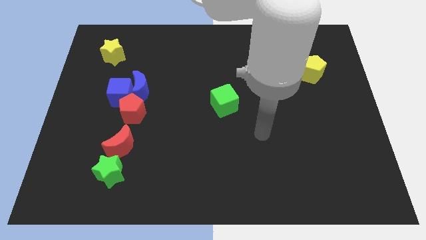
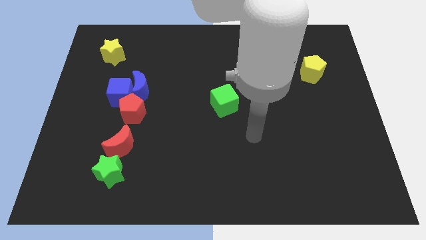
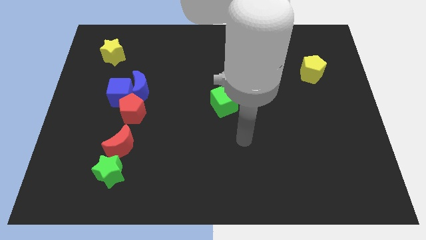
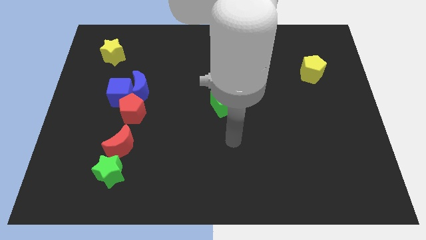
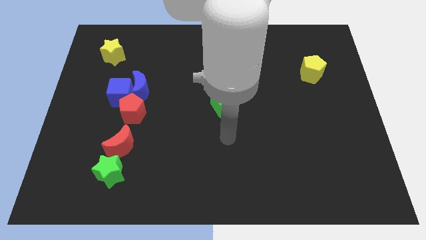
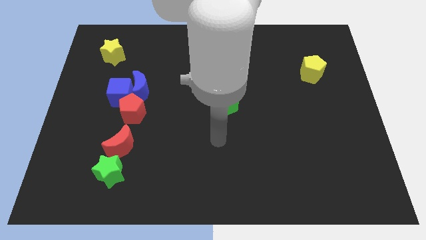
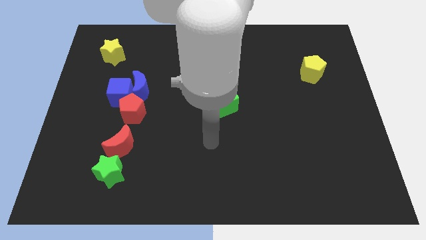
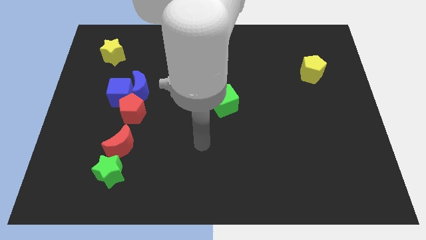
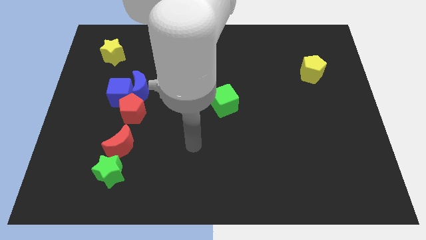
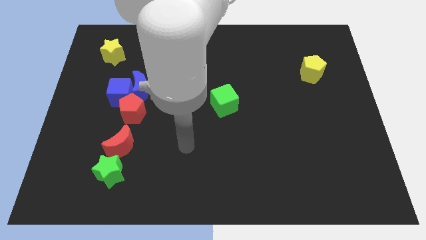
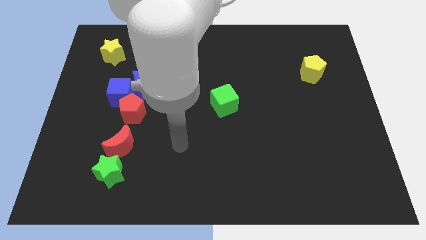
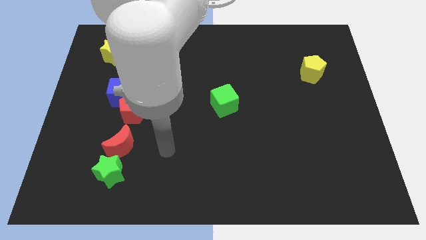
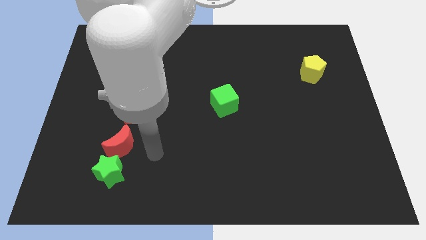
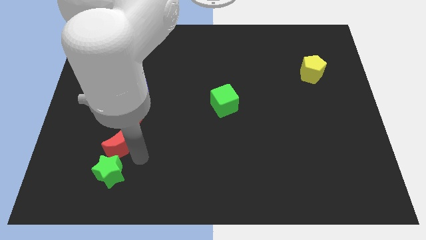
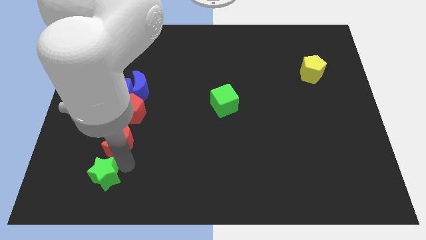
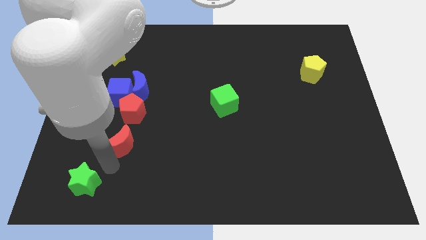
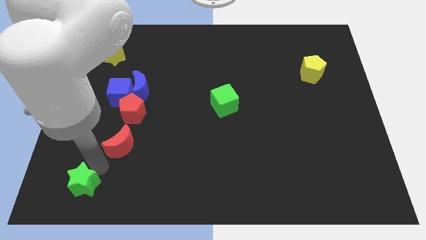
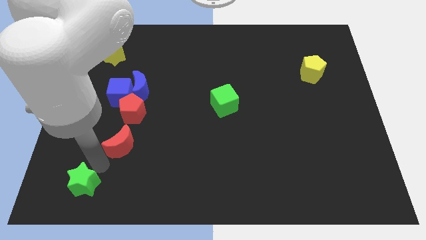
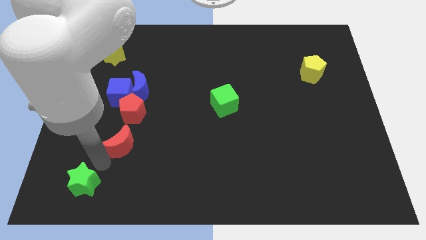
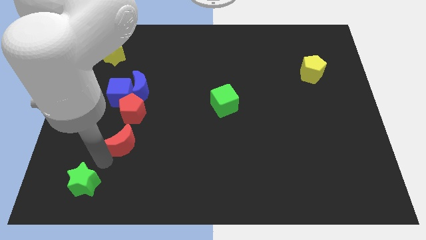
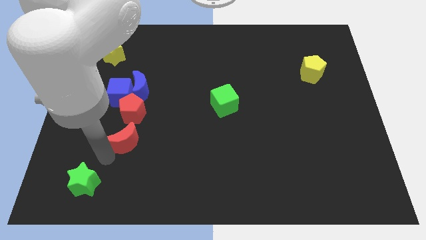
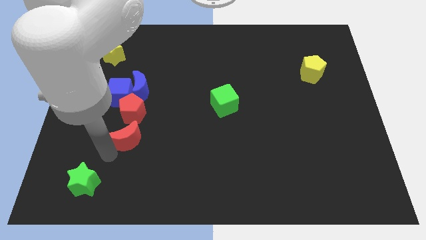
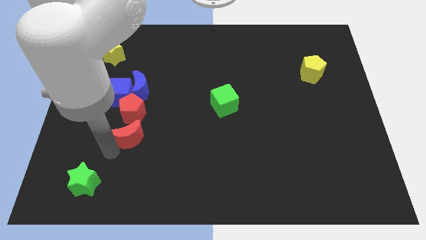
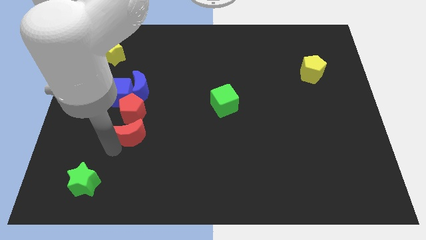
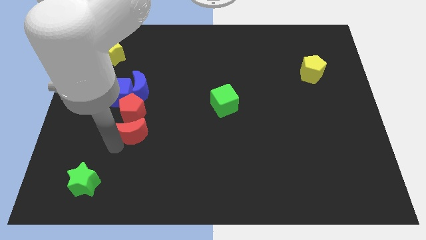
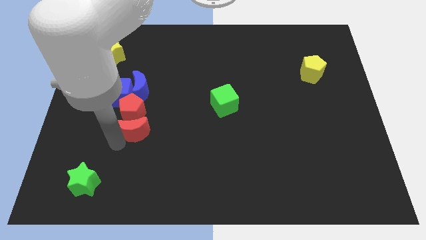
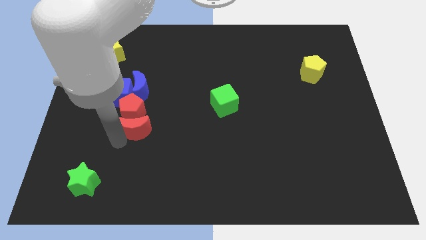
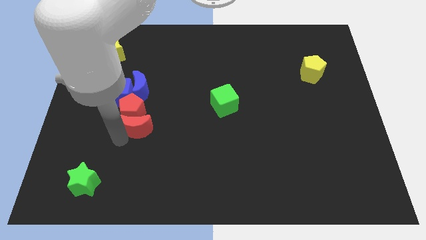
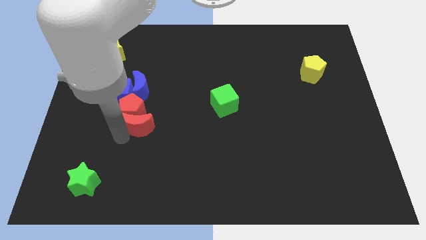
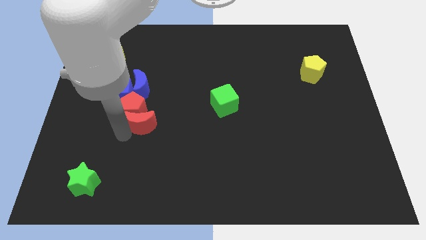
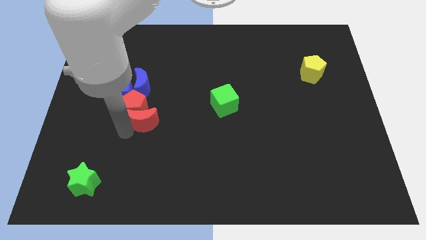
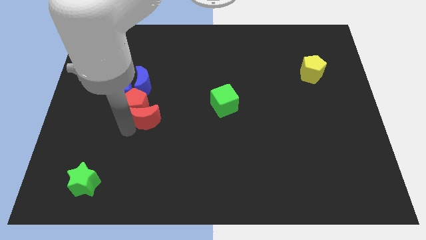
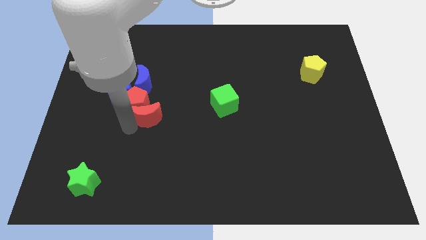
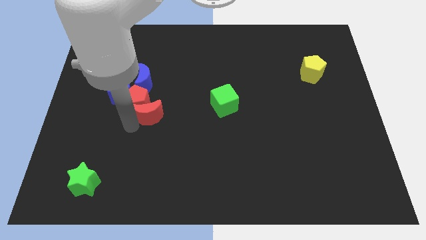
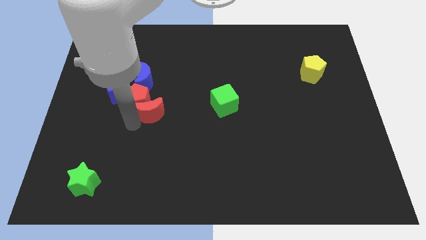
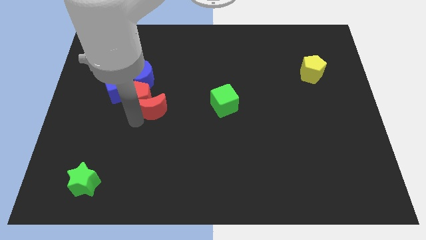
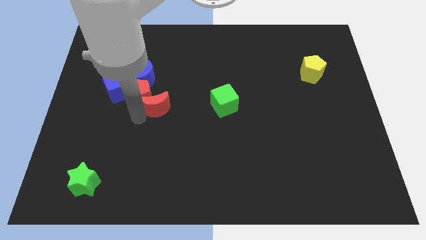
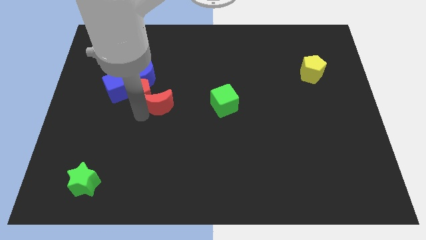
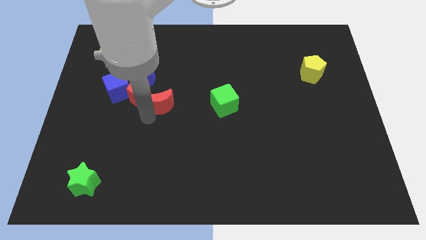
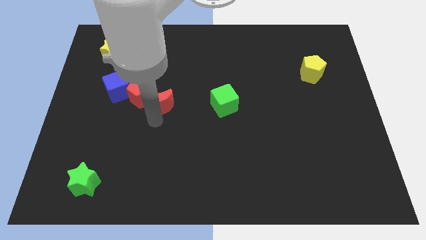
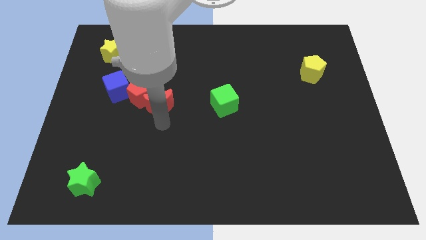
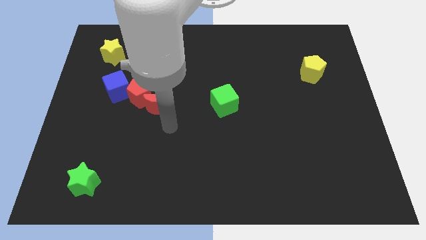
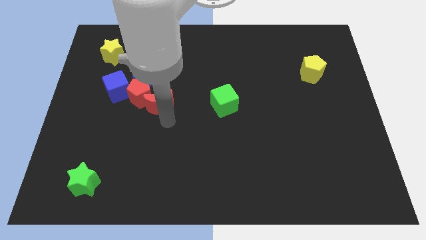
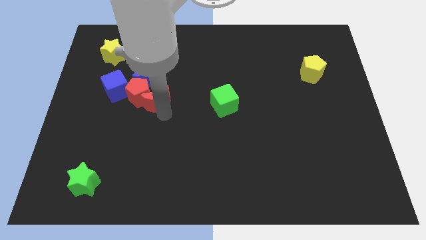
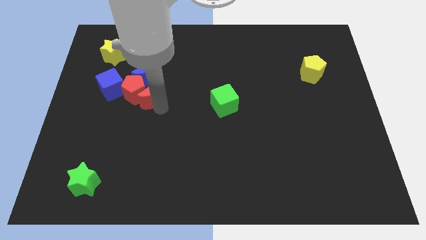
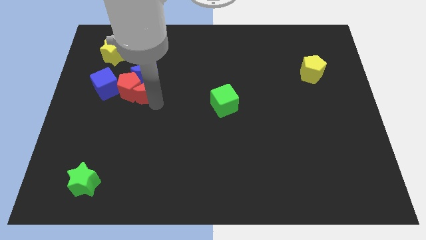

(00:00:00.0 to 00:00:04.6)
move the red moon to the blue moon

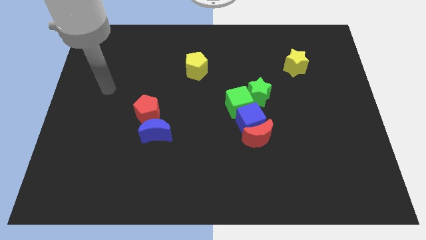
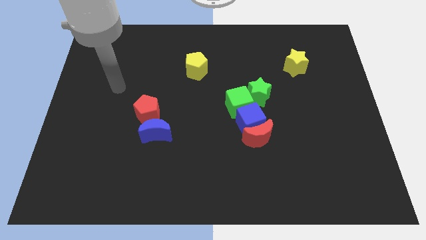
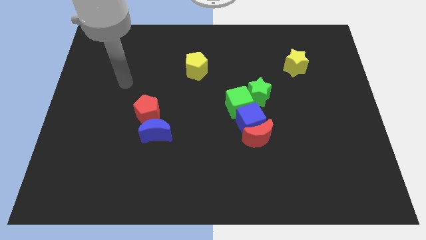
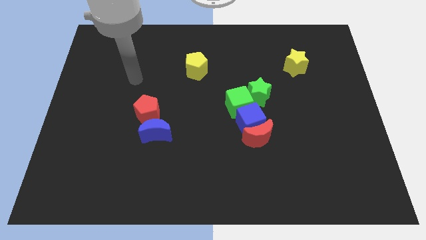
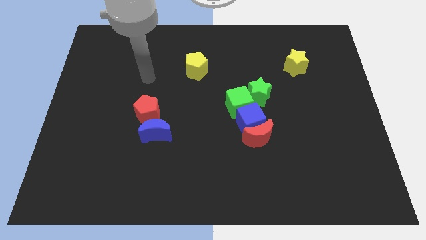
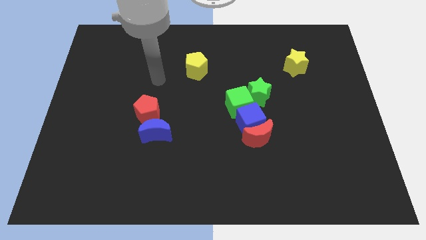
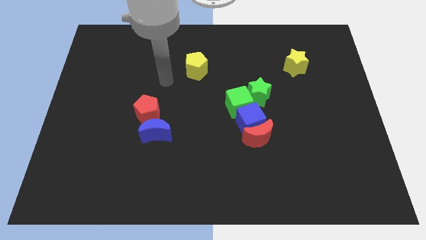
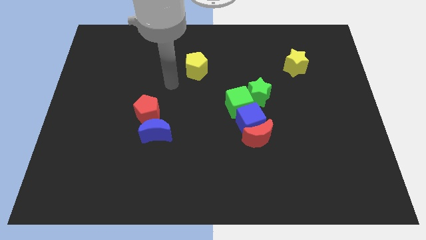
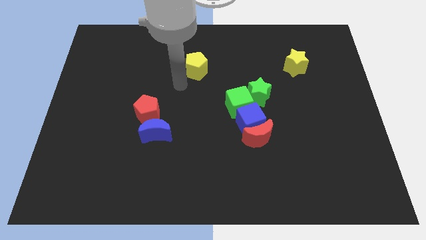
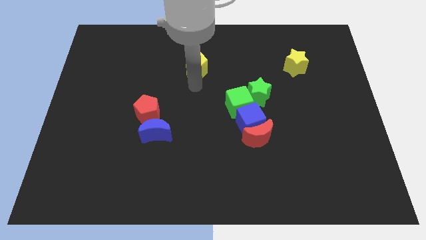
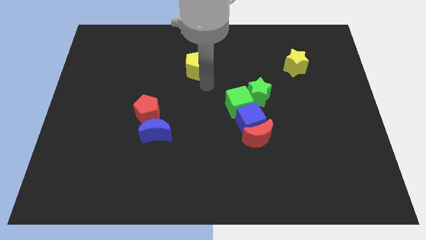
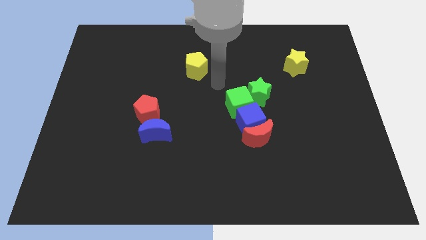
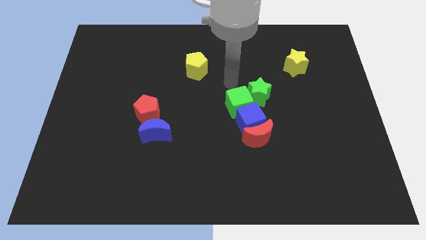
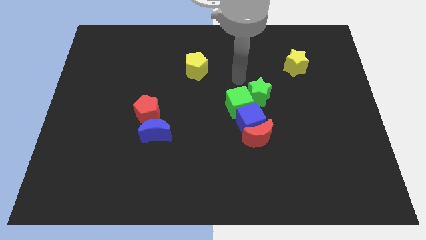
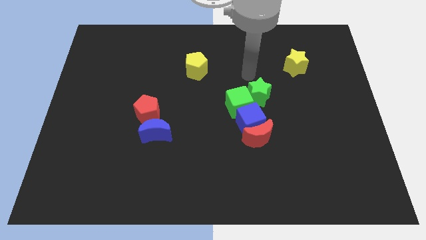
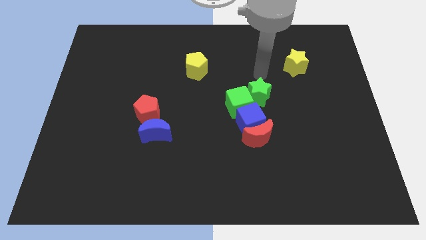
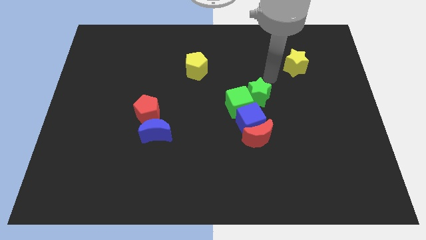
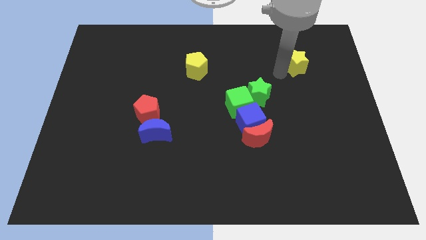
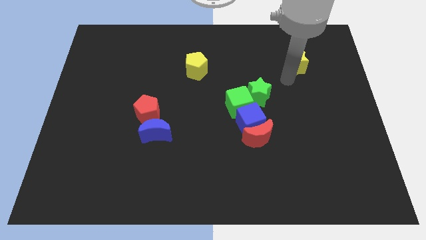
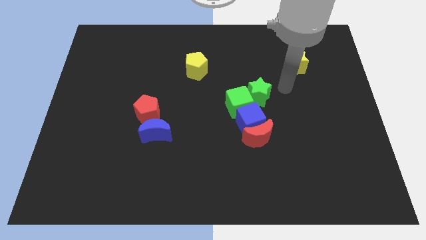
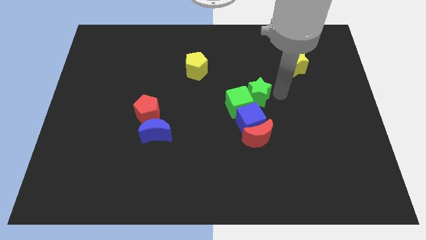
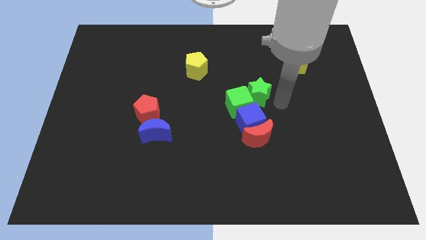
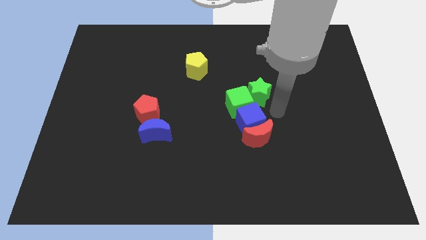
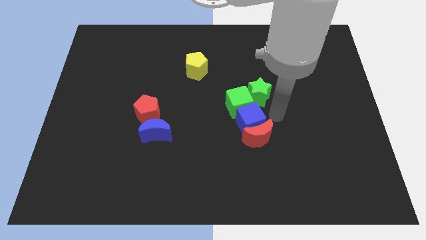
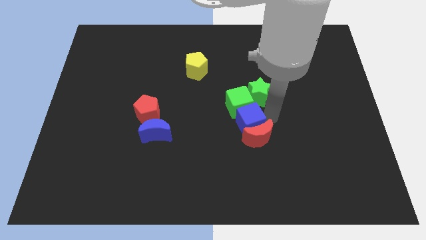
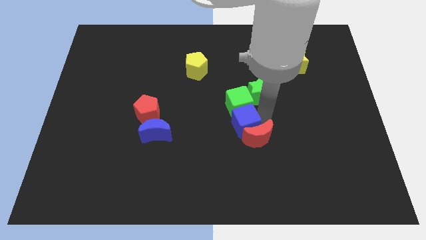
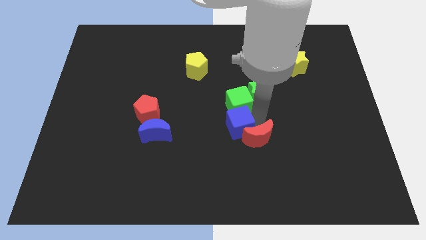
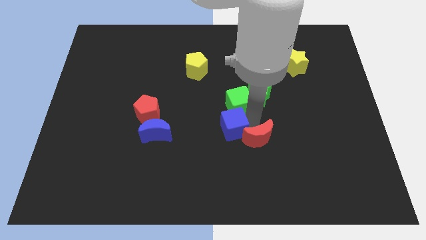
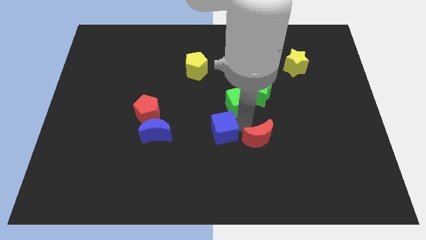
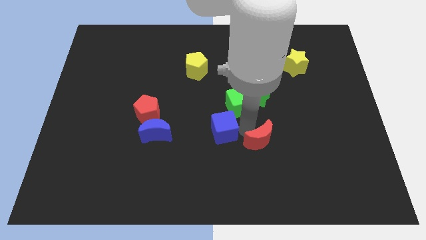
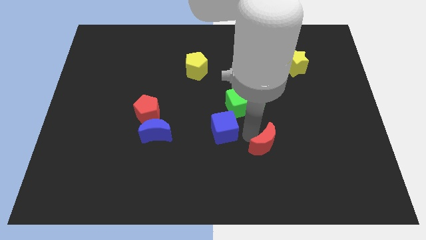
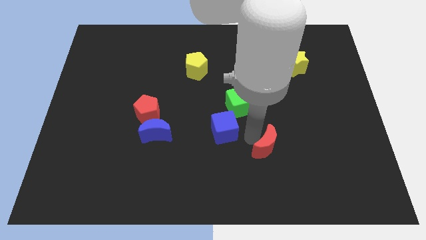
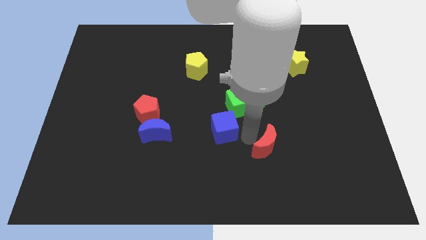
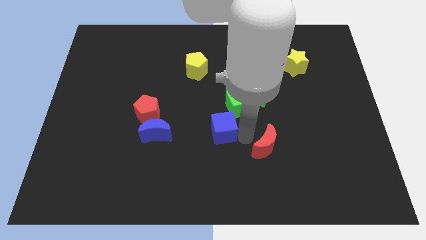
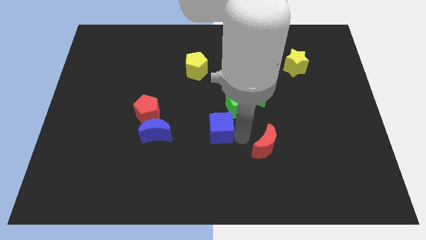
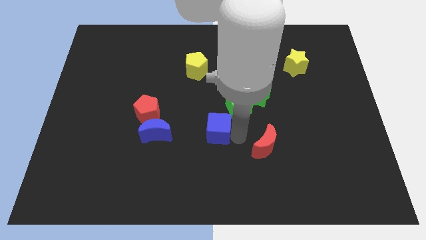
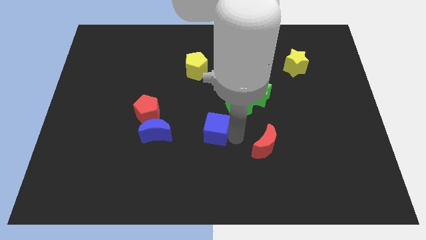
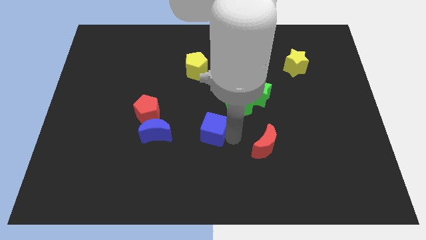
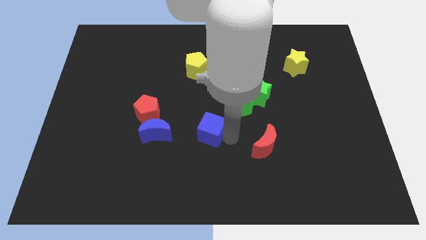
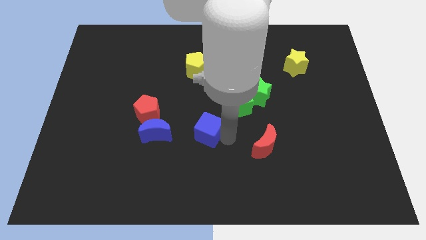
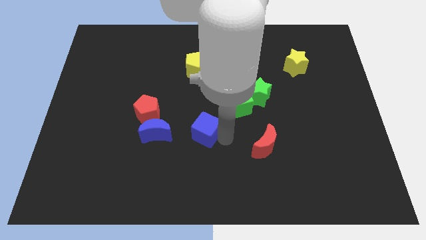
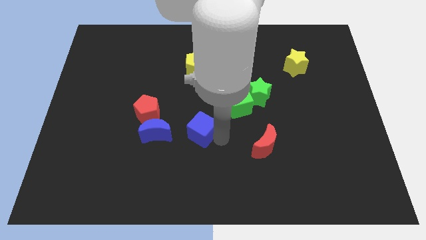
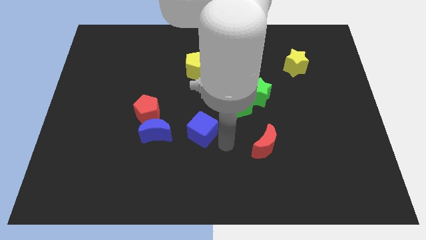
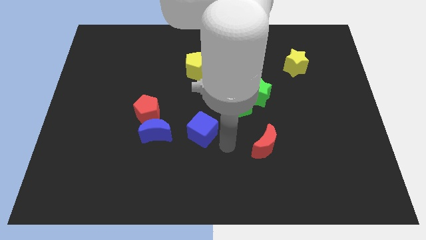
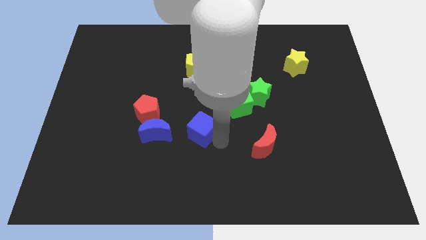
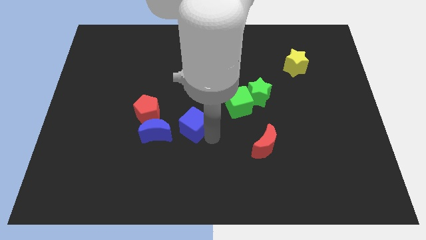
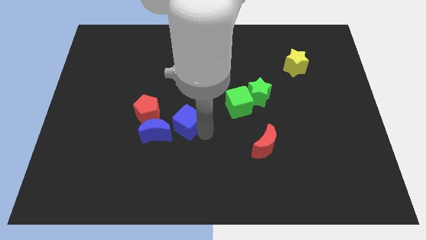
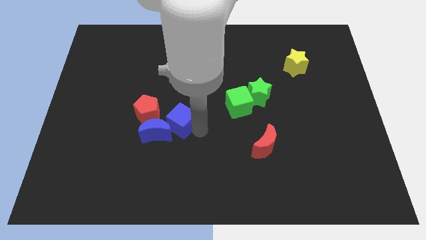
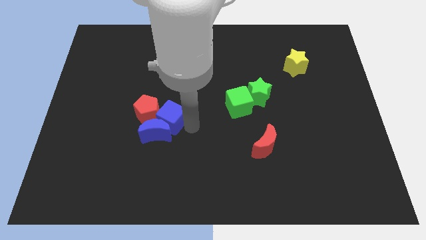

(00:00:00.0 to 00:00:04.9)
slide the blue cube towards the red pentagon
